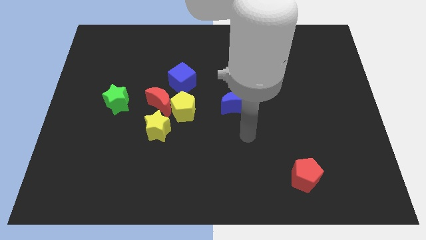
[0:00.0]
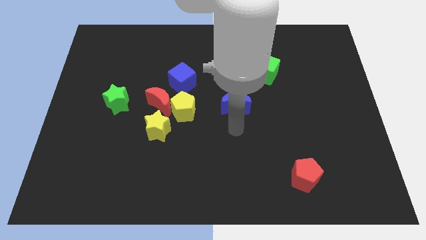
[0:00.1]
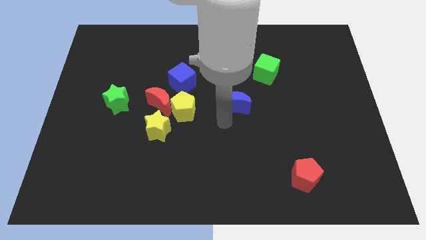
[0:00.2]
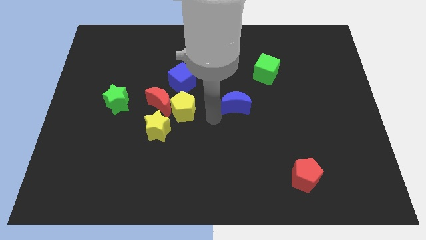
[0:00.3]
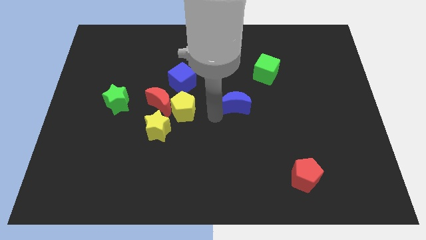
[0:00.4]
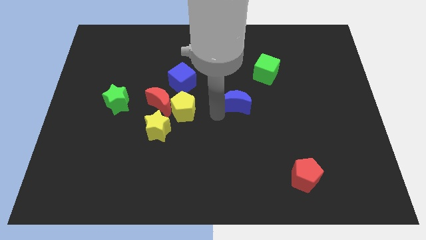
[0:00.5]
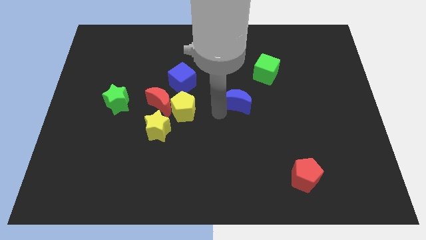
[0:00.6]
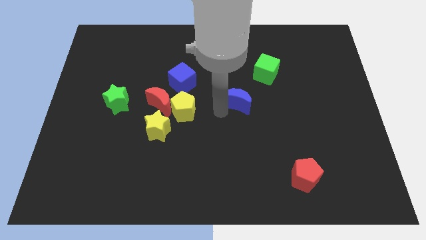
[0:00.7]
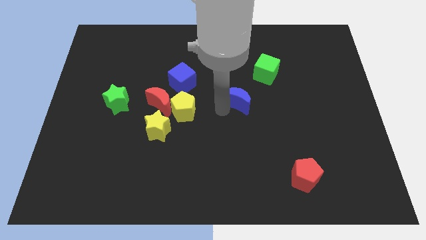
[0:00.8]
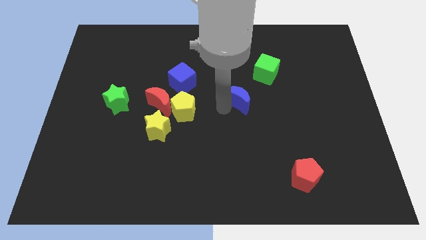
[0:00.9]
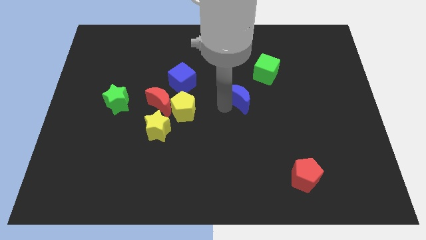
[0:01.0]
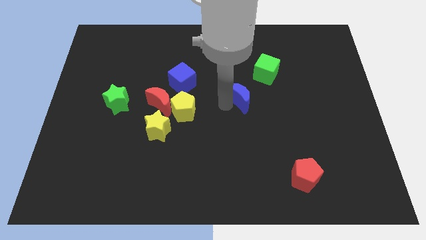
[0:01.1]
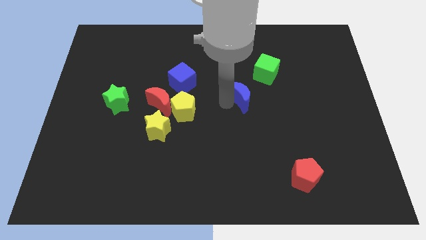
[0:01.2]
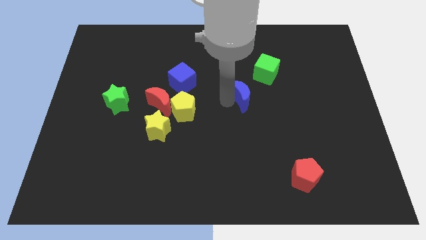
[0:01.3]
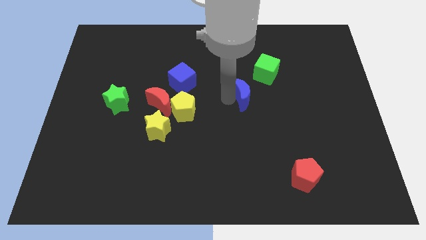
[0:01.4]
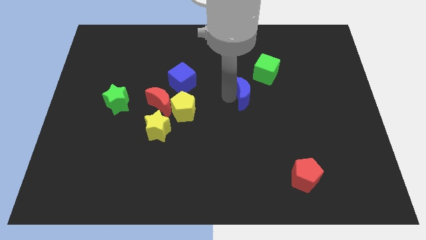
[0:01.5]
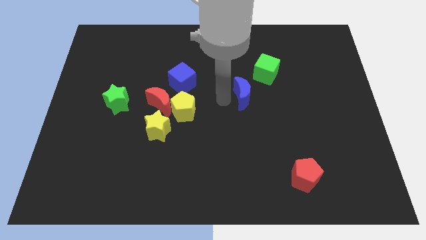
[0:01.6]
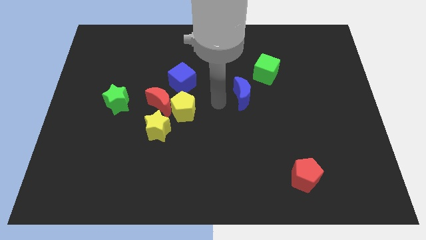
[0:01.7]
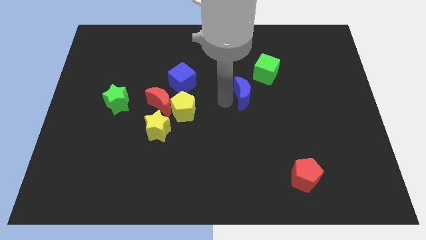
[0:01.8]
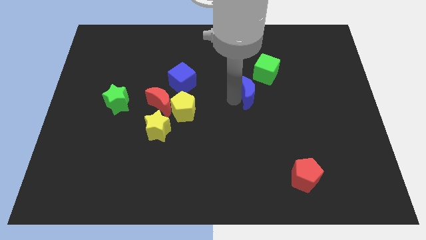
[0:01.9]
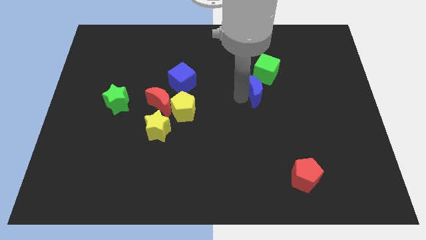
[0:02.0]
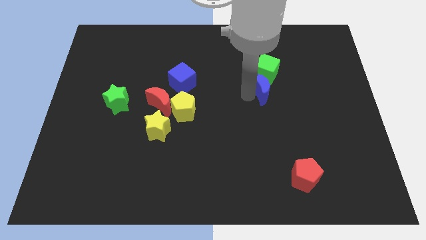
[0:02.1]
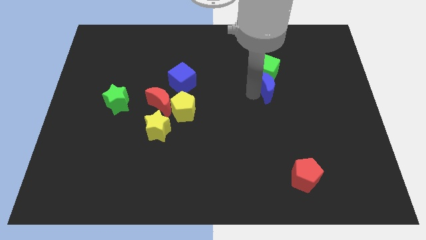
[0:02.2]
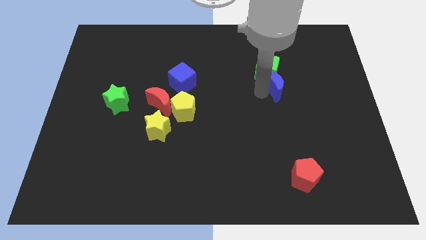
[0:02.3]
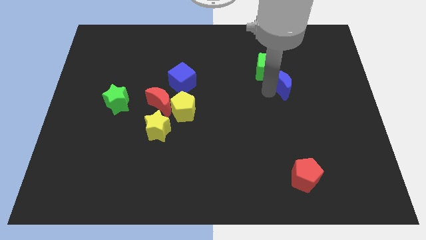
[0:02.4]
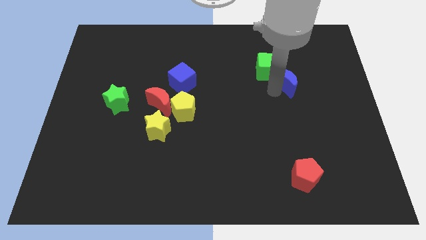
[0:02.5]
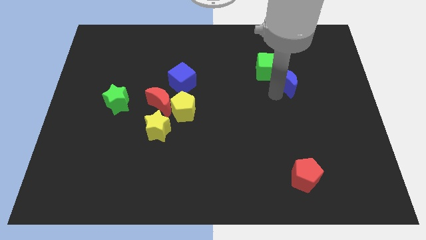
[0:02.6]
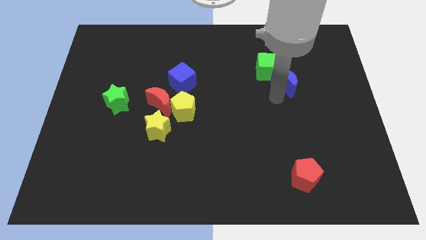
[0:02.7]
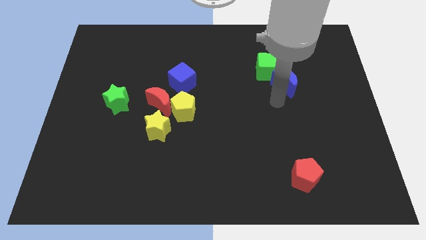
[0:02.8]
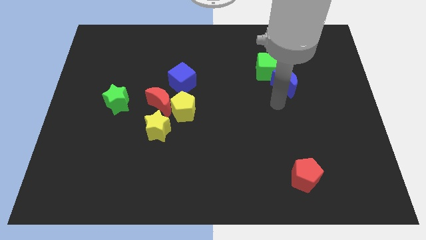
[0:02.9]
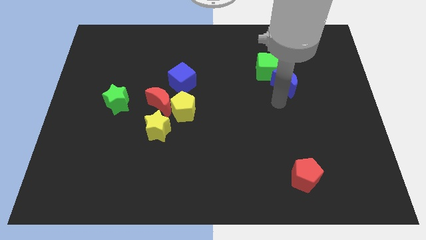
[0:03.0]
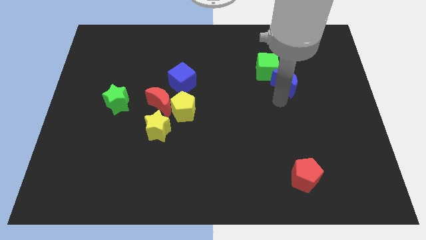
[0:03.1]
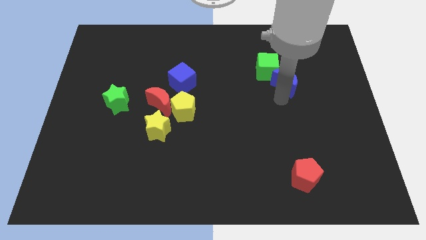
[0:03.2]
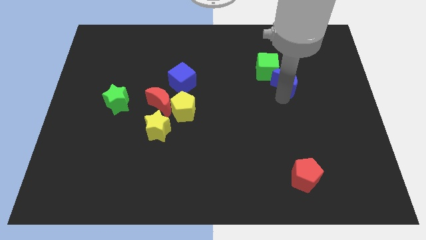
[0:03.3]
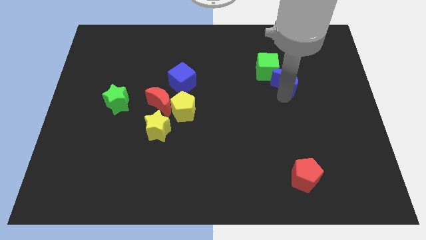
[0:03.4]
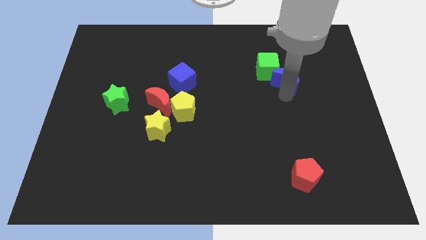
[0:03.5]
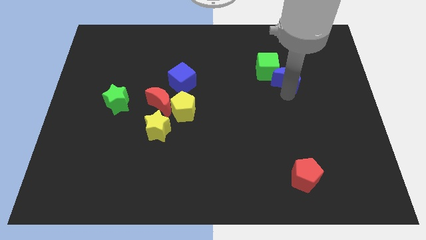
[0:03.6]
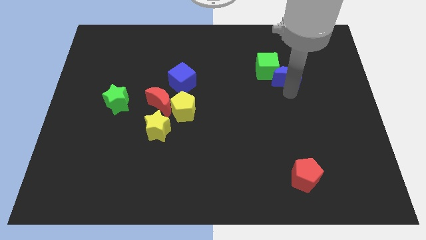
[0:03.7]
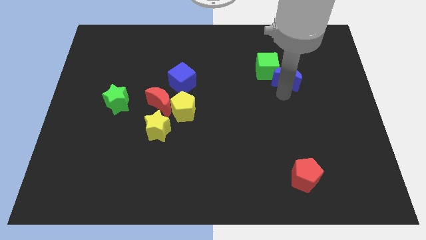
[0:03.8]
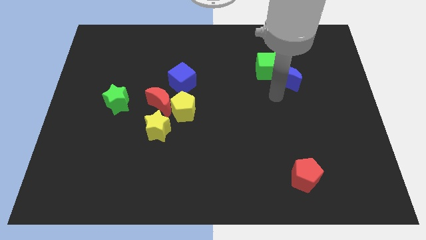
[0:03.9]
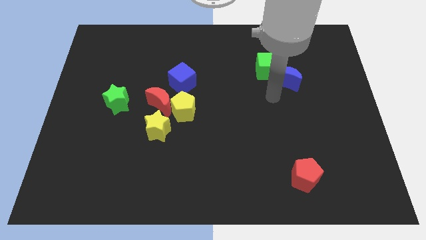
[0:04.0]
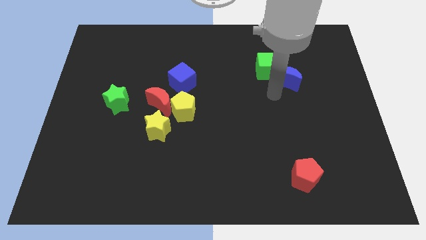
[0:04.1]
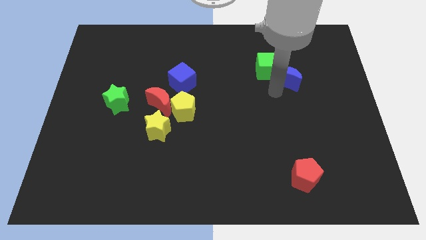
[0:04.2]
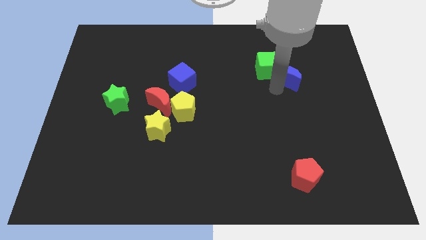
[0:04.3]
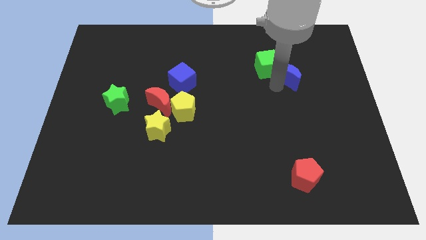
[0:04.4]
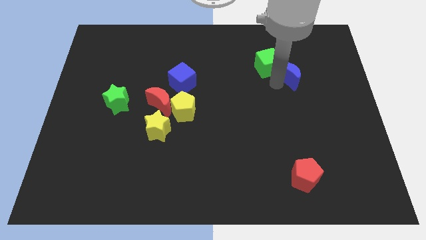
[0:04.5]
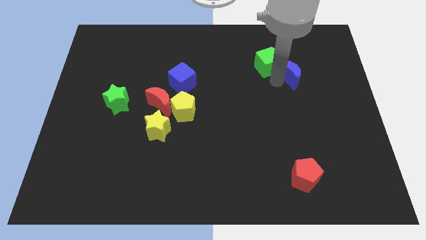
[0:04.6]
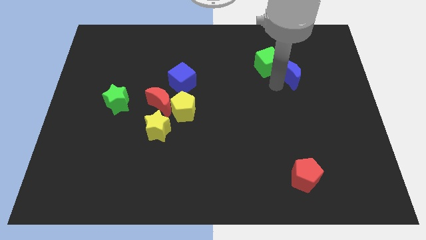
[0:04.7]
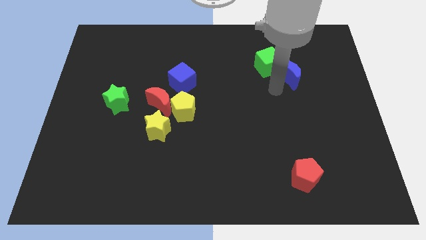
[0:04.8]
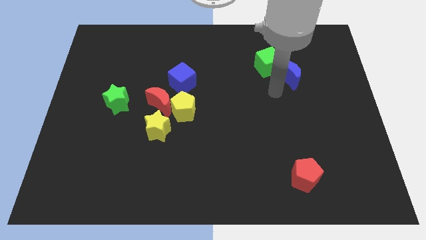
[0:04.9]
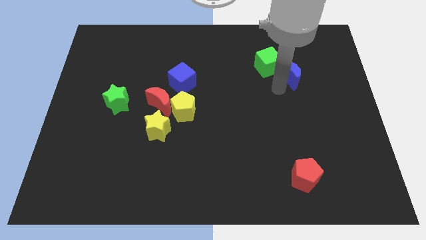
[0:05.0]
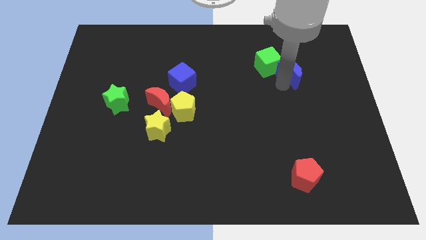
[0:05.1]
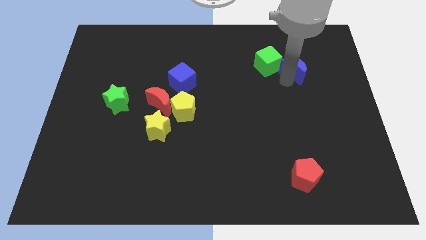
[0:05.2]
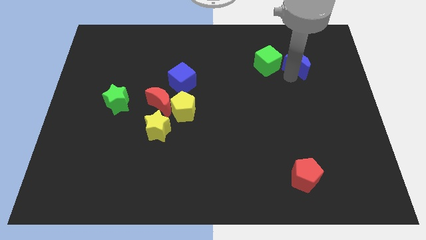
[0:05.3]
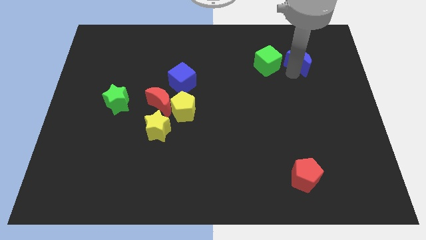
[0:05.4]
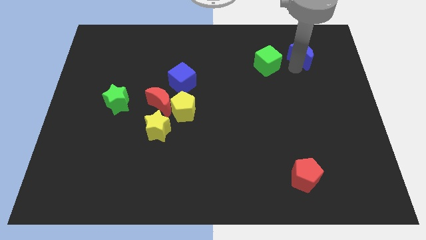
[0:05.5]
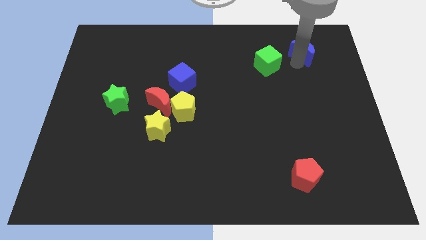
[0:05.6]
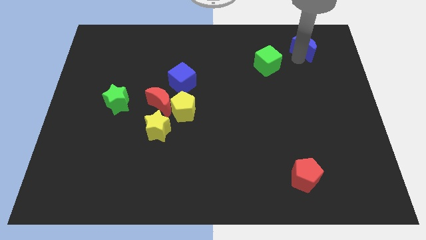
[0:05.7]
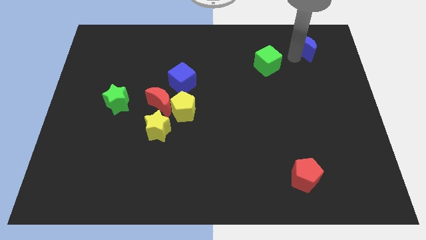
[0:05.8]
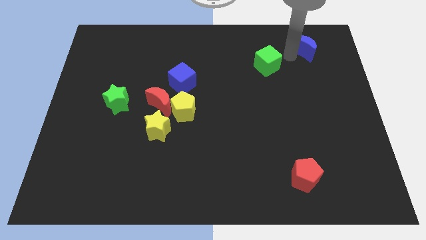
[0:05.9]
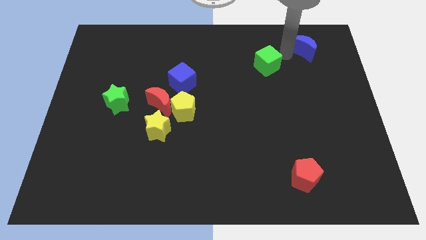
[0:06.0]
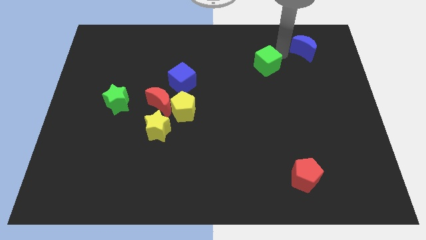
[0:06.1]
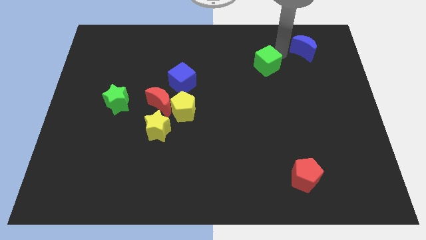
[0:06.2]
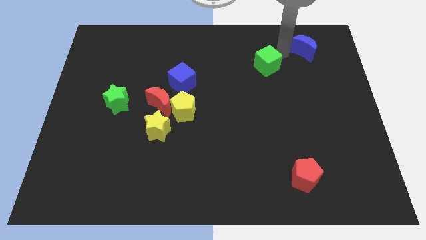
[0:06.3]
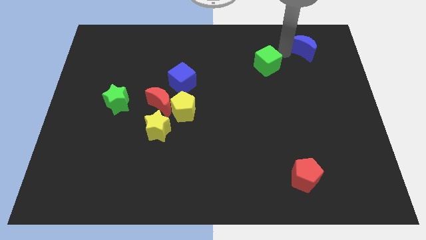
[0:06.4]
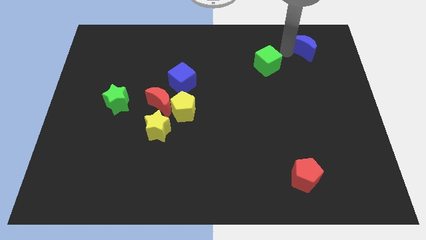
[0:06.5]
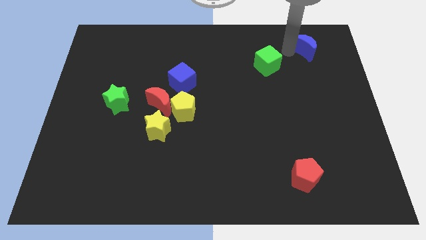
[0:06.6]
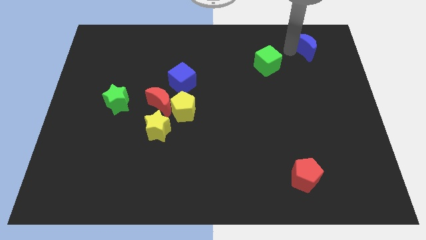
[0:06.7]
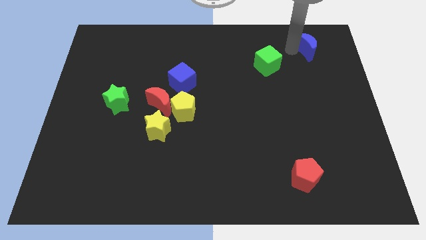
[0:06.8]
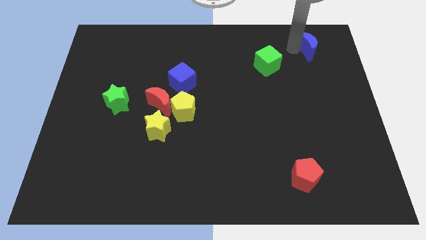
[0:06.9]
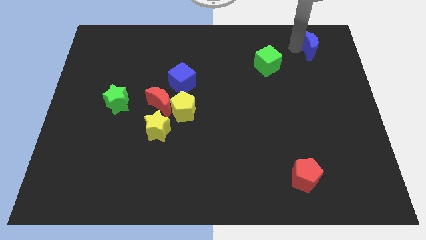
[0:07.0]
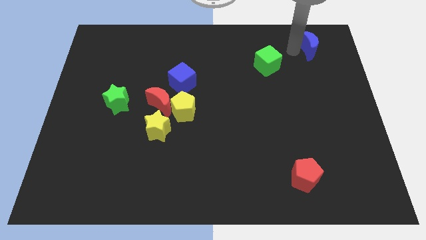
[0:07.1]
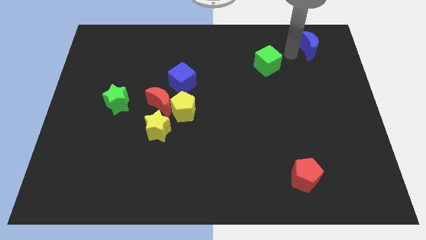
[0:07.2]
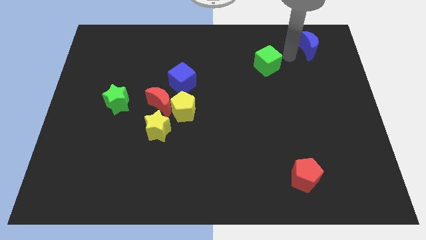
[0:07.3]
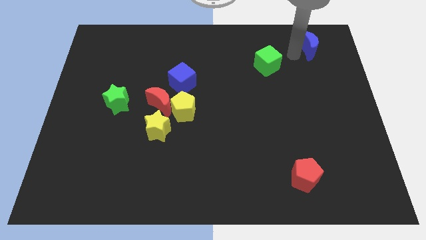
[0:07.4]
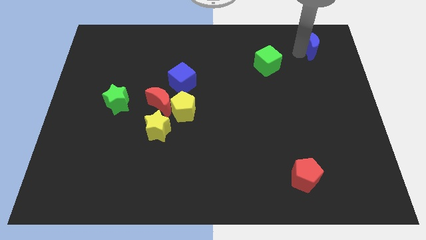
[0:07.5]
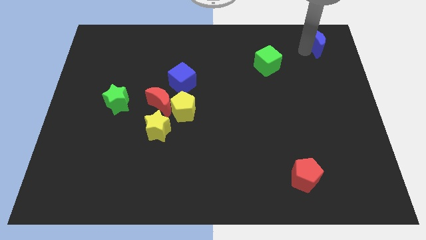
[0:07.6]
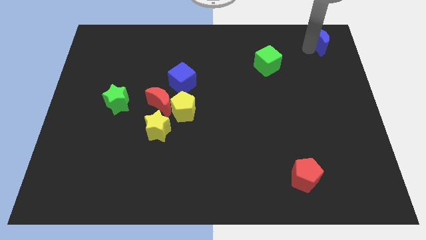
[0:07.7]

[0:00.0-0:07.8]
slide the blue moon to the top right of the board
